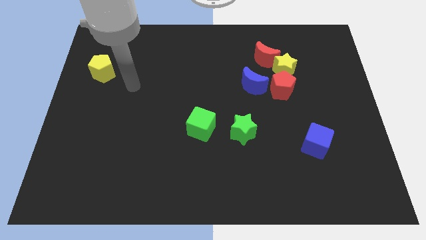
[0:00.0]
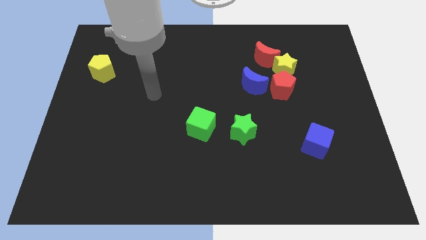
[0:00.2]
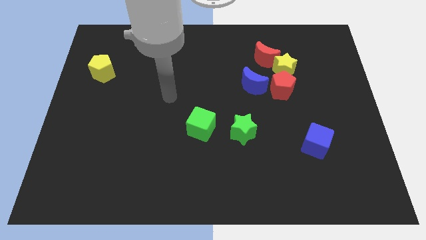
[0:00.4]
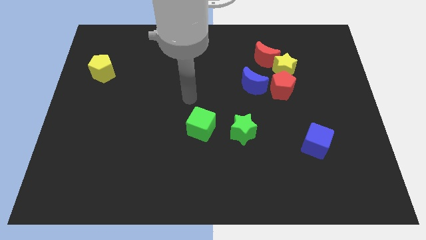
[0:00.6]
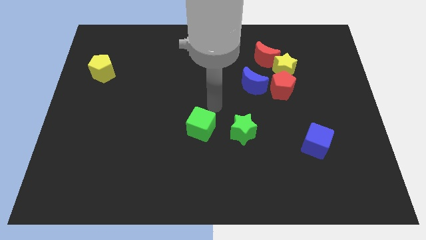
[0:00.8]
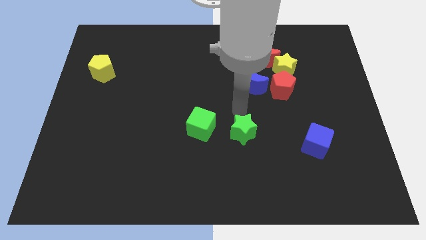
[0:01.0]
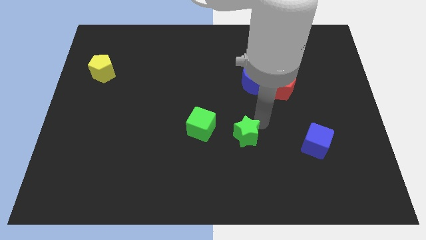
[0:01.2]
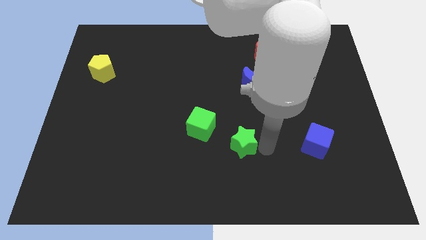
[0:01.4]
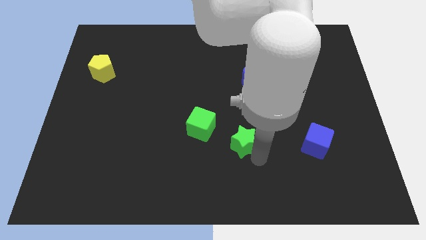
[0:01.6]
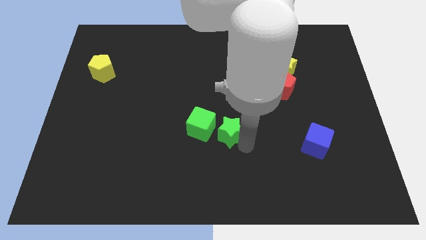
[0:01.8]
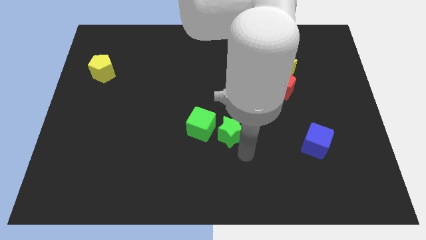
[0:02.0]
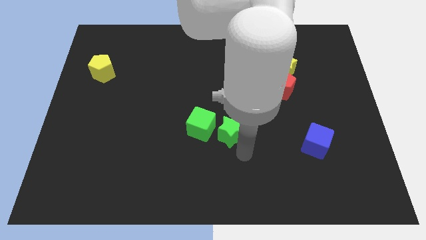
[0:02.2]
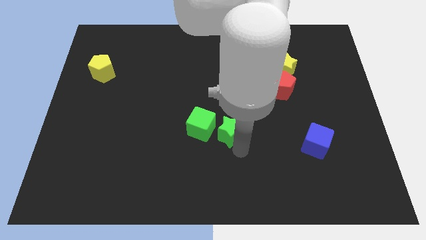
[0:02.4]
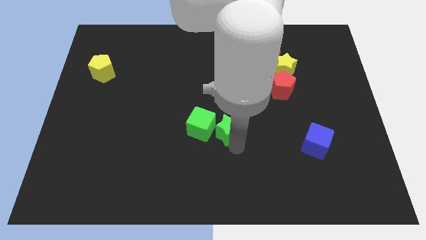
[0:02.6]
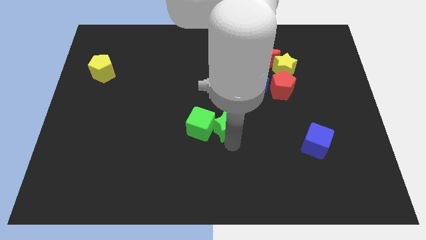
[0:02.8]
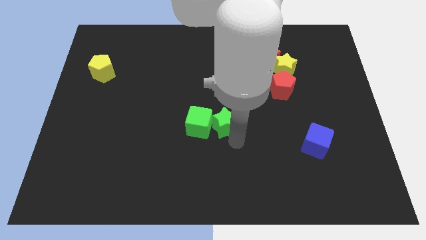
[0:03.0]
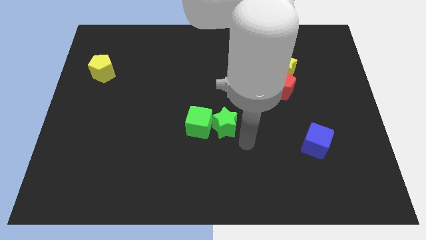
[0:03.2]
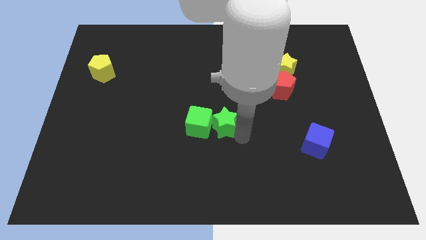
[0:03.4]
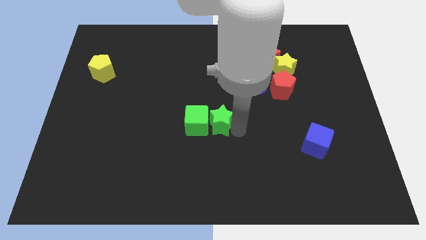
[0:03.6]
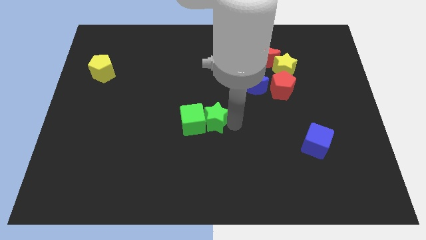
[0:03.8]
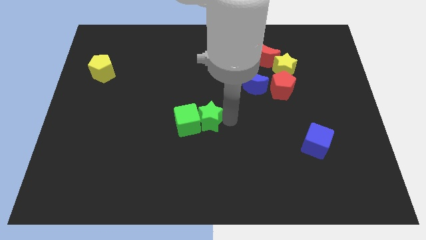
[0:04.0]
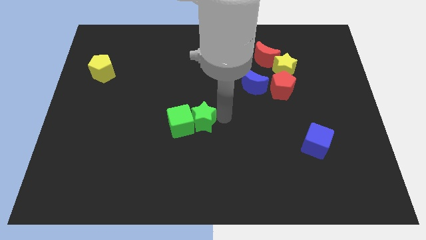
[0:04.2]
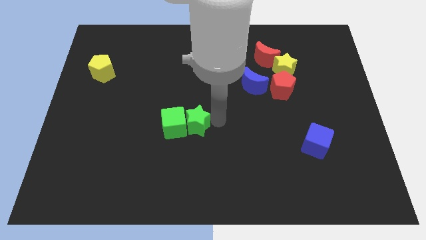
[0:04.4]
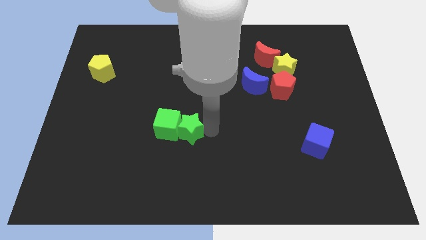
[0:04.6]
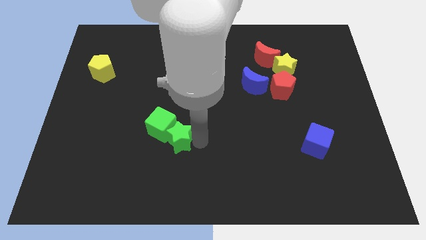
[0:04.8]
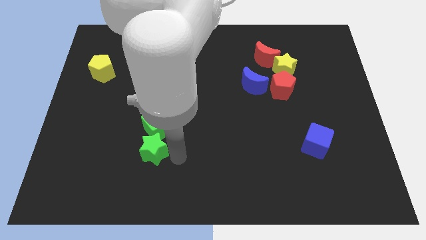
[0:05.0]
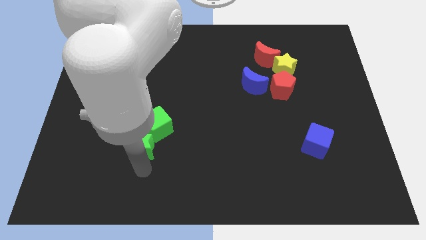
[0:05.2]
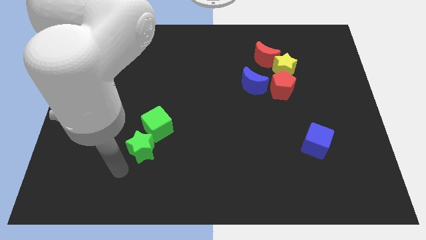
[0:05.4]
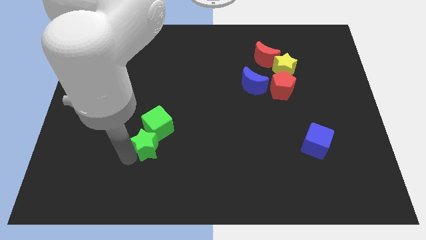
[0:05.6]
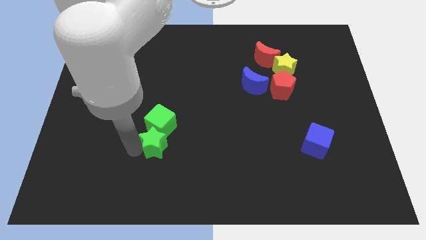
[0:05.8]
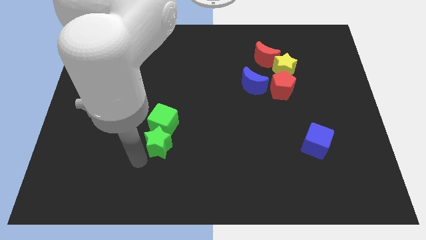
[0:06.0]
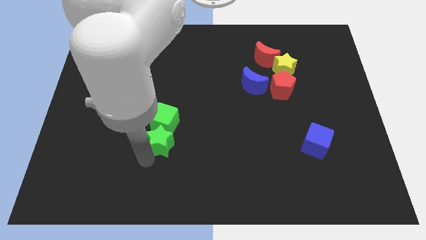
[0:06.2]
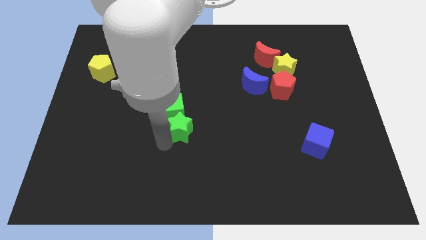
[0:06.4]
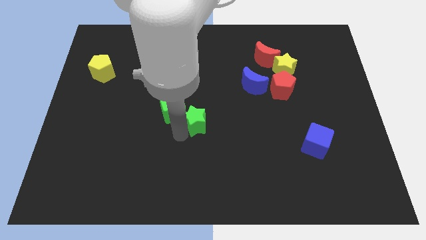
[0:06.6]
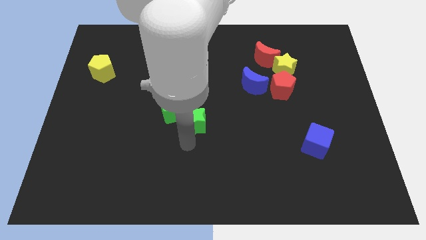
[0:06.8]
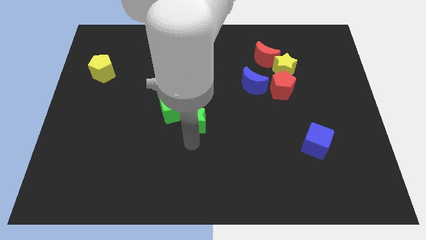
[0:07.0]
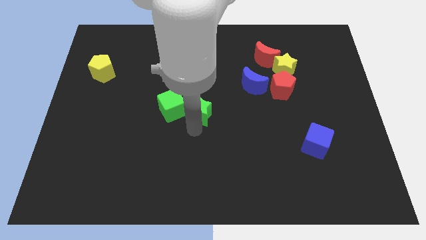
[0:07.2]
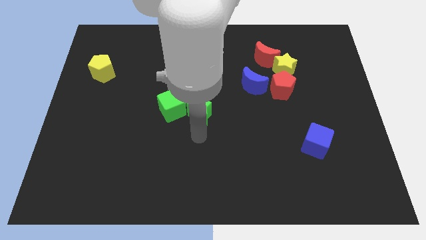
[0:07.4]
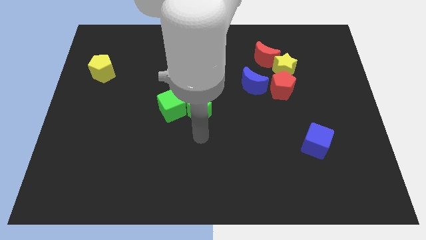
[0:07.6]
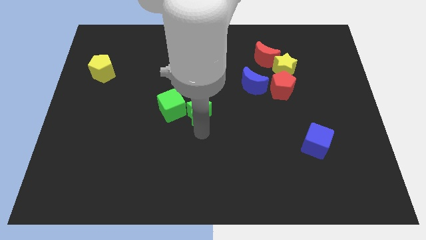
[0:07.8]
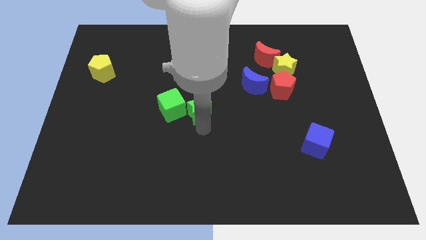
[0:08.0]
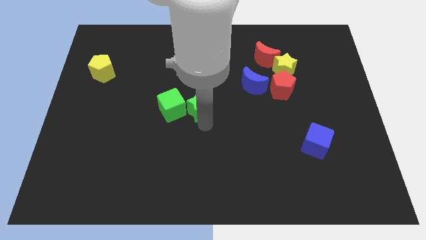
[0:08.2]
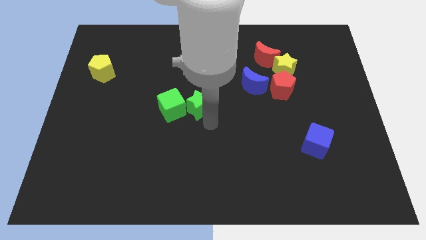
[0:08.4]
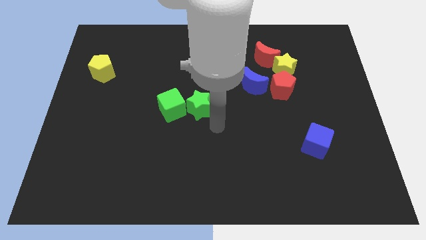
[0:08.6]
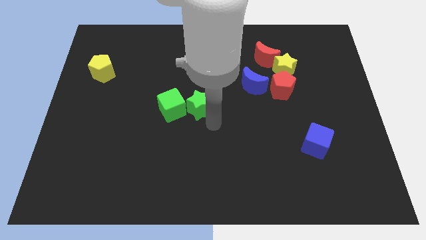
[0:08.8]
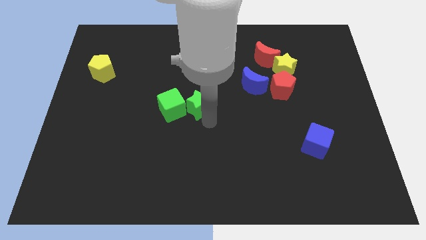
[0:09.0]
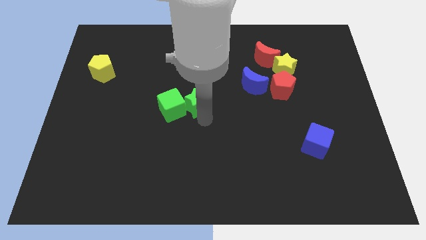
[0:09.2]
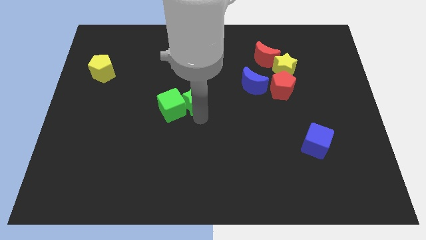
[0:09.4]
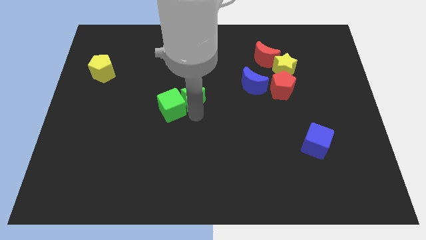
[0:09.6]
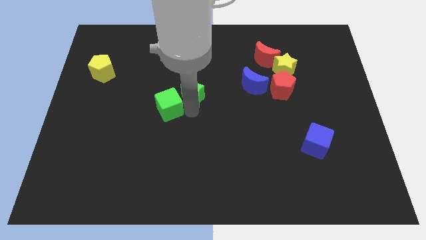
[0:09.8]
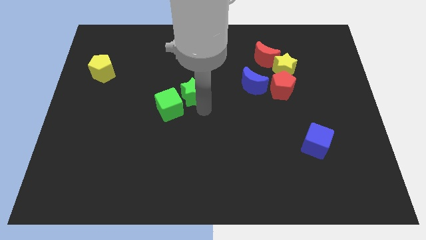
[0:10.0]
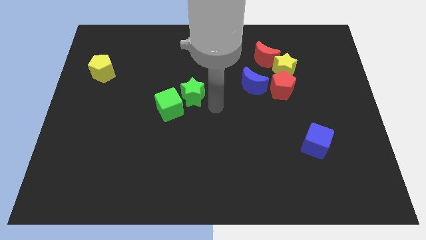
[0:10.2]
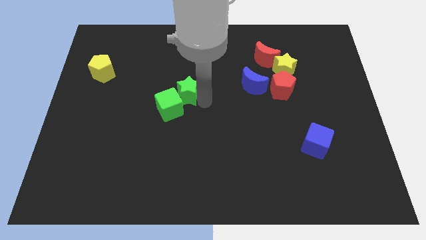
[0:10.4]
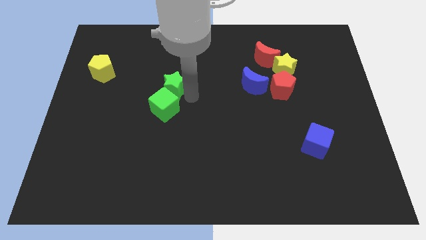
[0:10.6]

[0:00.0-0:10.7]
push the green star upwards and then to the left

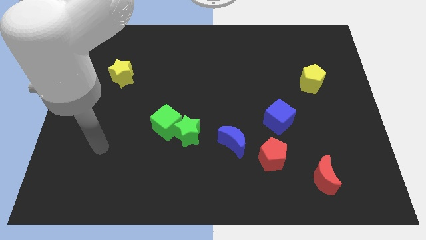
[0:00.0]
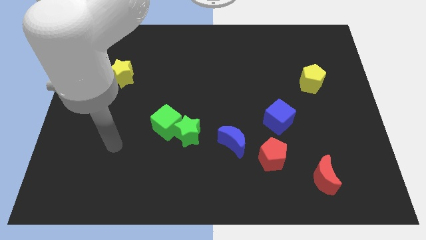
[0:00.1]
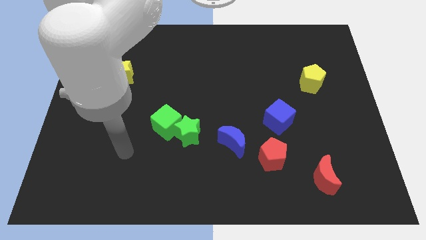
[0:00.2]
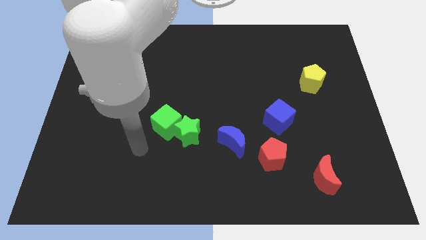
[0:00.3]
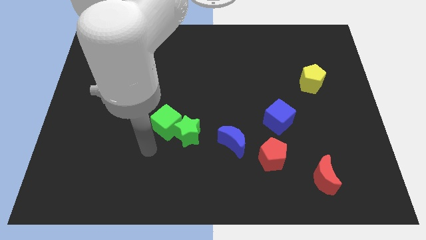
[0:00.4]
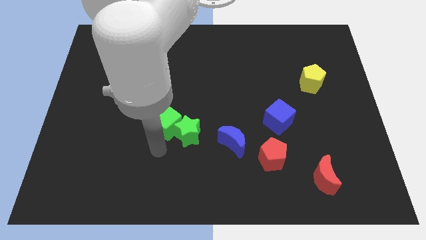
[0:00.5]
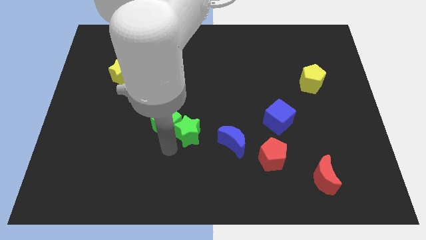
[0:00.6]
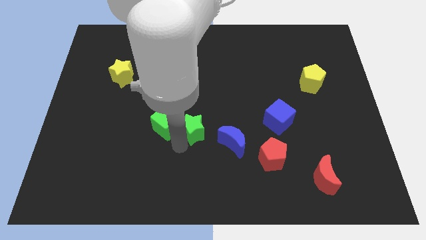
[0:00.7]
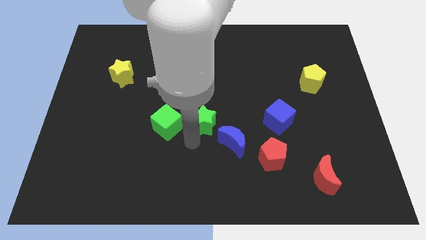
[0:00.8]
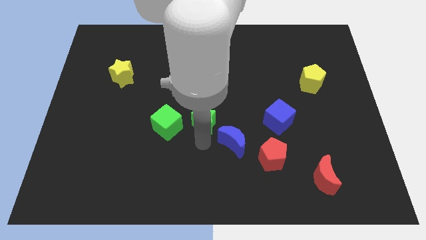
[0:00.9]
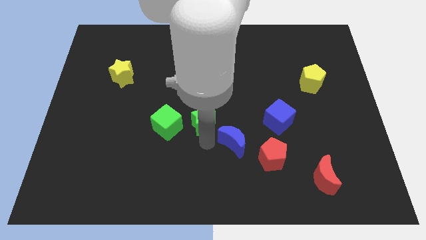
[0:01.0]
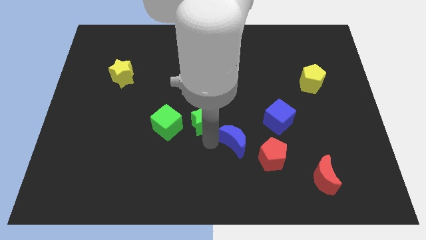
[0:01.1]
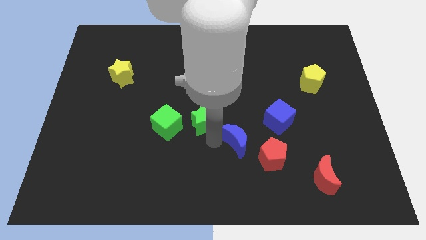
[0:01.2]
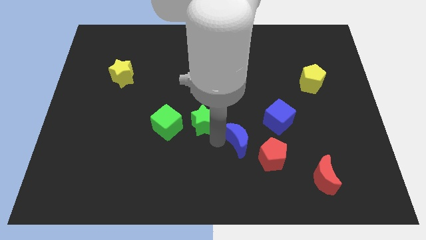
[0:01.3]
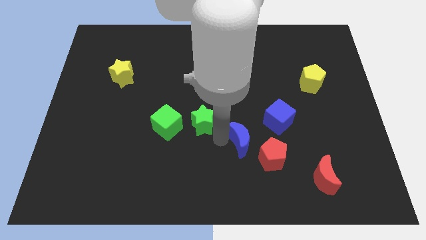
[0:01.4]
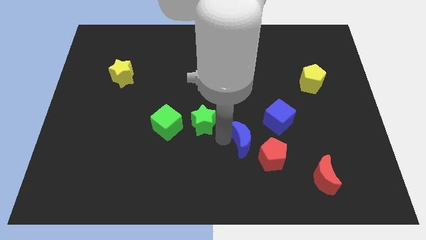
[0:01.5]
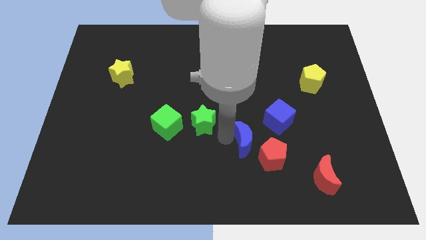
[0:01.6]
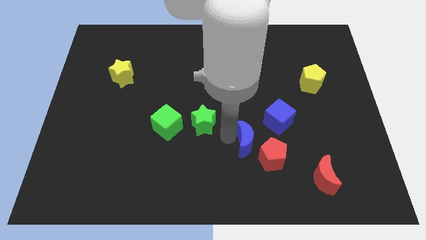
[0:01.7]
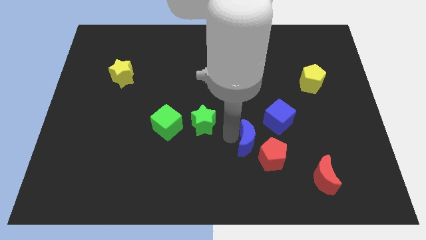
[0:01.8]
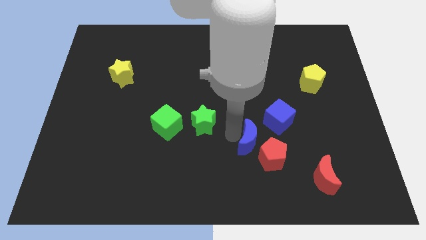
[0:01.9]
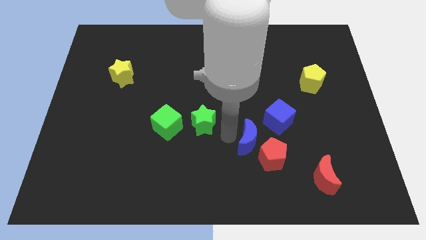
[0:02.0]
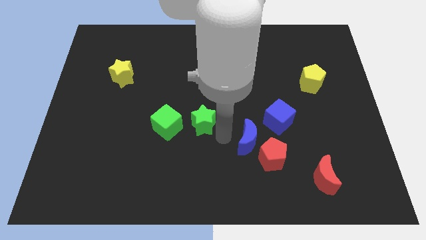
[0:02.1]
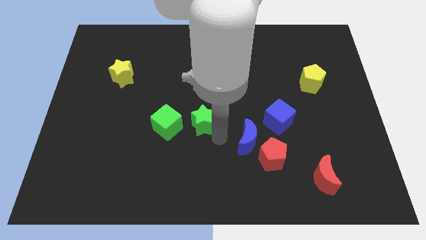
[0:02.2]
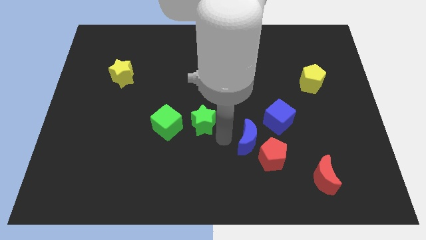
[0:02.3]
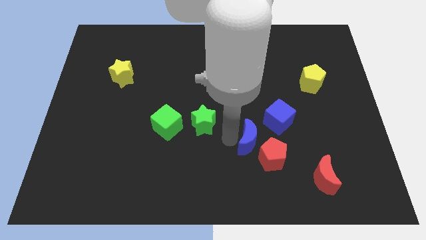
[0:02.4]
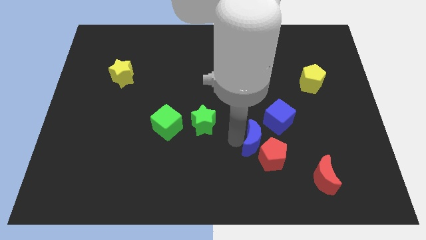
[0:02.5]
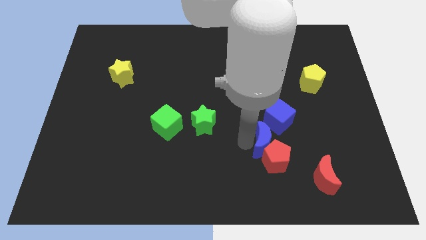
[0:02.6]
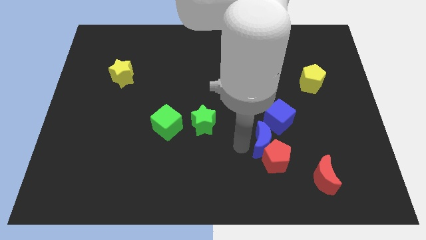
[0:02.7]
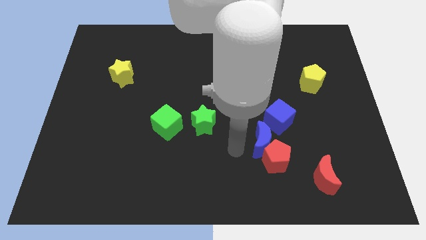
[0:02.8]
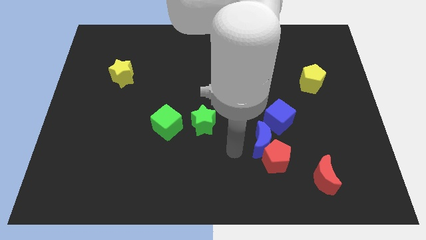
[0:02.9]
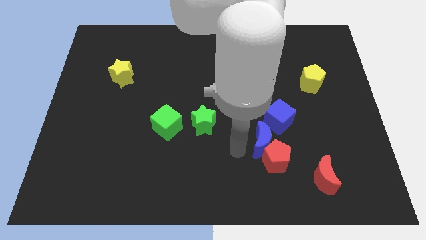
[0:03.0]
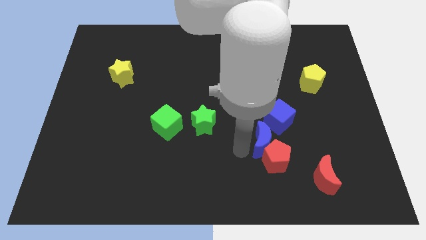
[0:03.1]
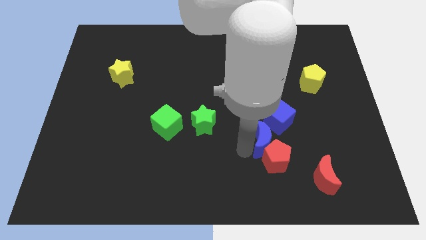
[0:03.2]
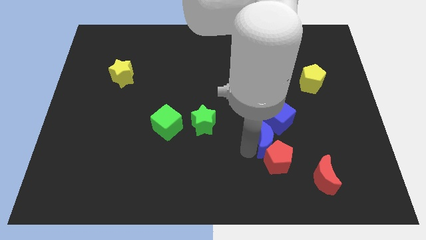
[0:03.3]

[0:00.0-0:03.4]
slide the blue moon a bit to the right
